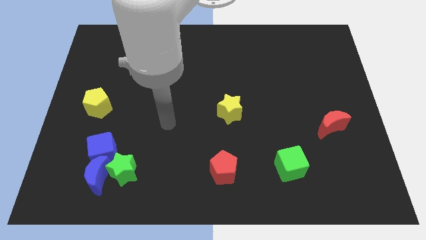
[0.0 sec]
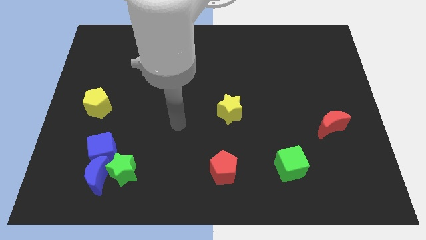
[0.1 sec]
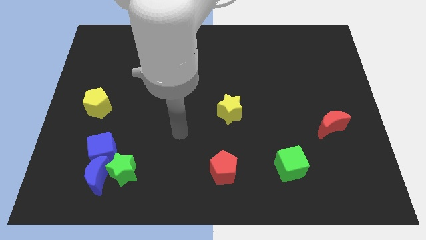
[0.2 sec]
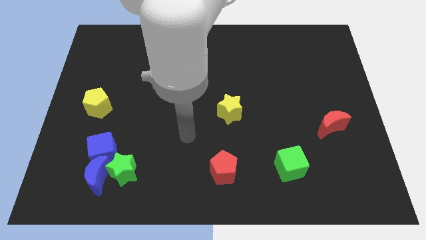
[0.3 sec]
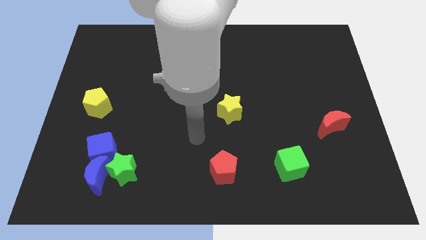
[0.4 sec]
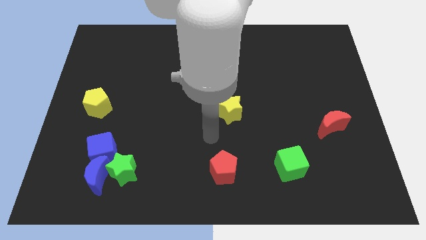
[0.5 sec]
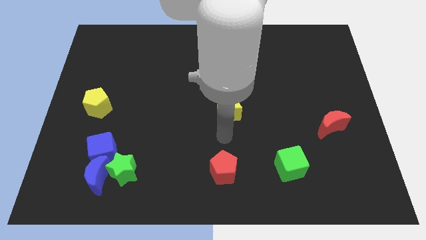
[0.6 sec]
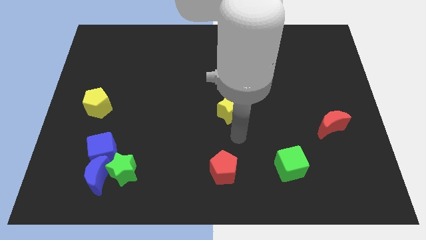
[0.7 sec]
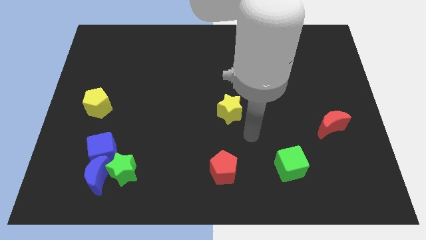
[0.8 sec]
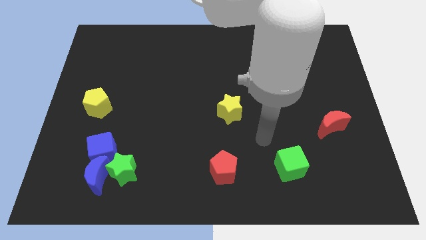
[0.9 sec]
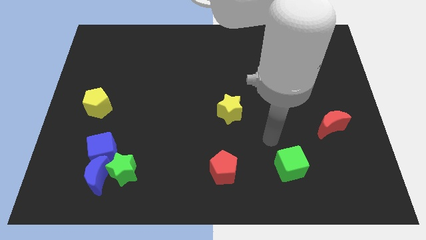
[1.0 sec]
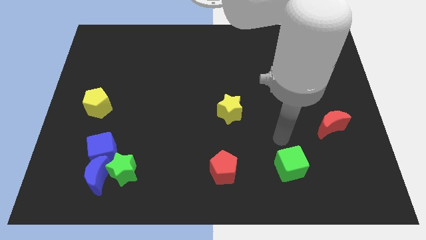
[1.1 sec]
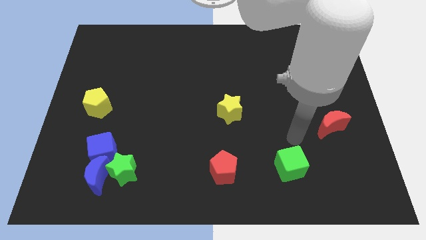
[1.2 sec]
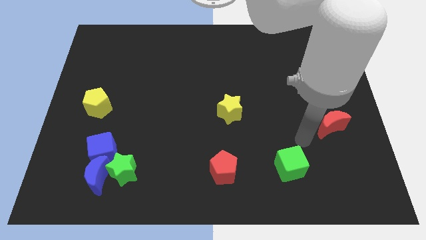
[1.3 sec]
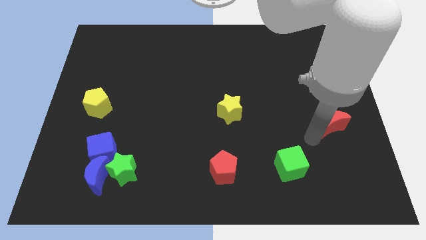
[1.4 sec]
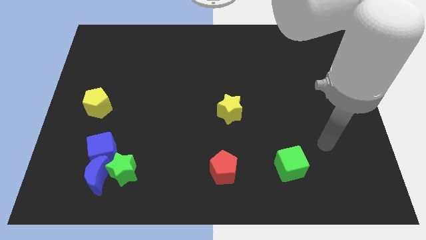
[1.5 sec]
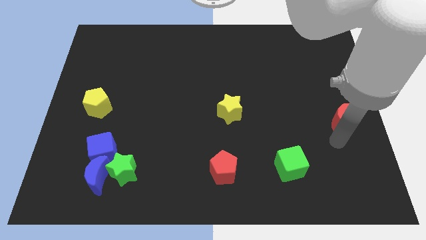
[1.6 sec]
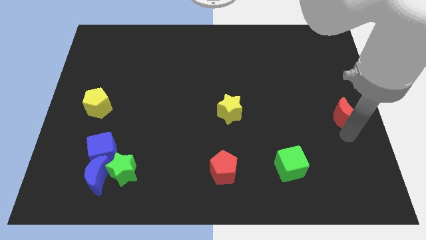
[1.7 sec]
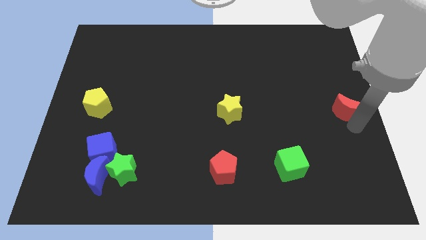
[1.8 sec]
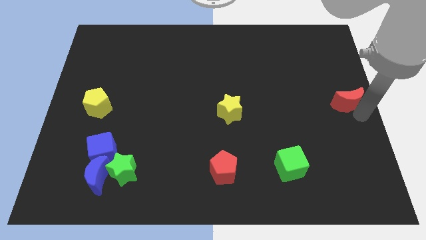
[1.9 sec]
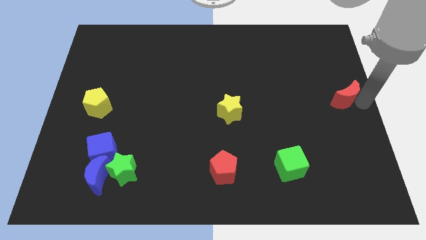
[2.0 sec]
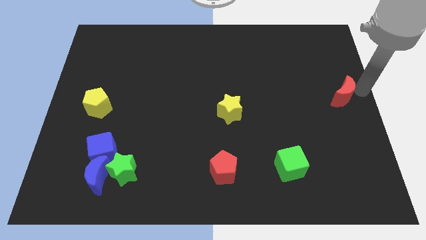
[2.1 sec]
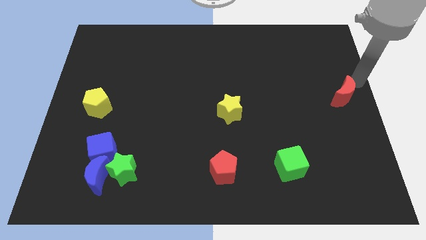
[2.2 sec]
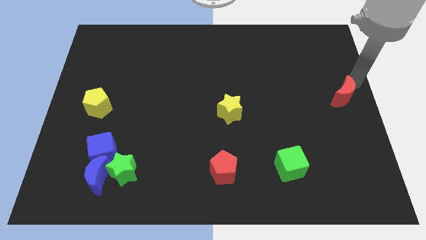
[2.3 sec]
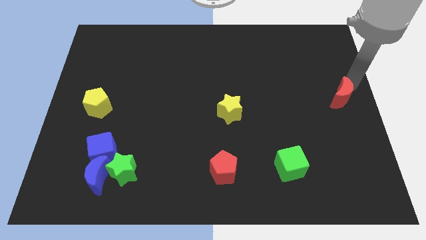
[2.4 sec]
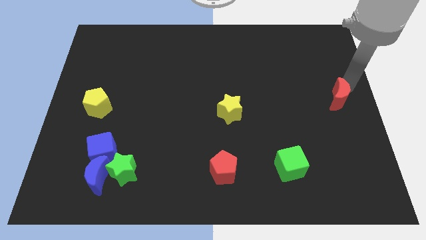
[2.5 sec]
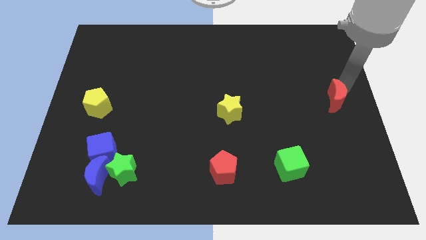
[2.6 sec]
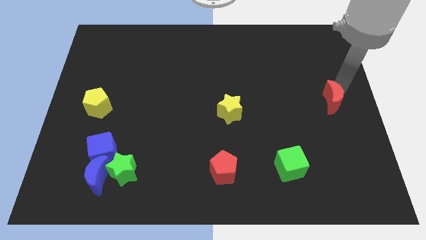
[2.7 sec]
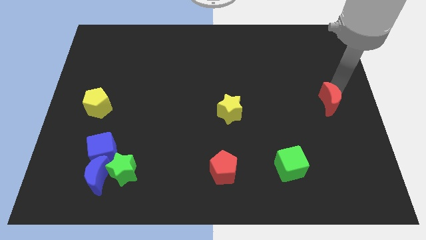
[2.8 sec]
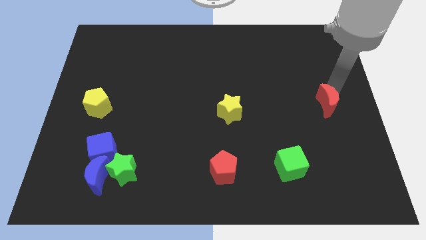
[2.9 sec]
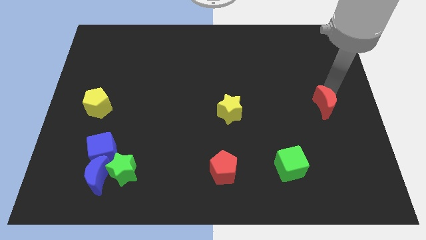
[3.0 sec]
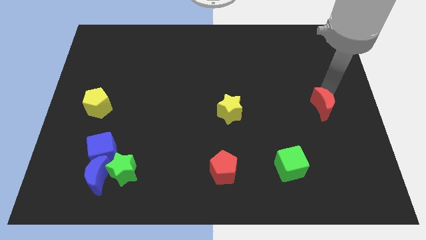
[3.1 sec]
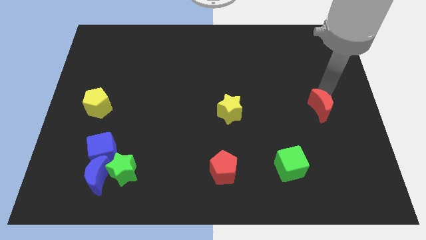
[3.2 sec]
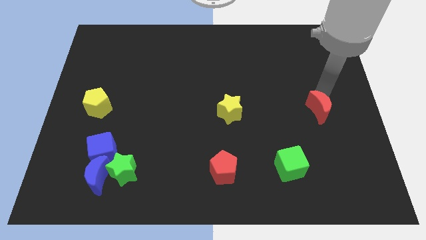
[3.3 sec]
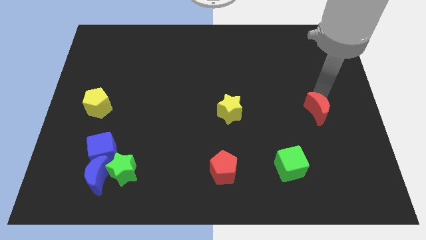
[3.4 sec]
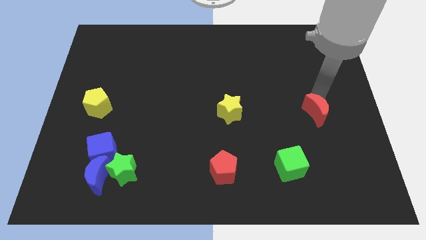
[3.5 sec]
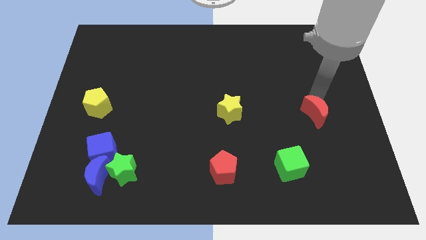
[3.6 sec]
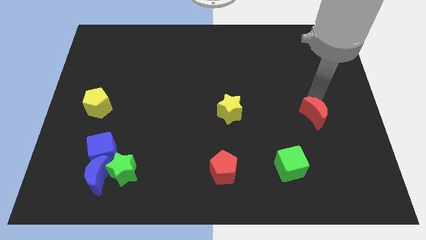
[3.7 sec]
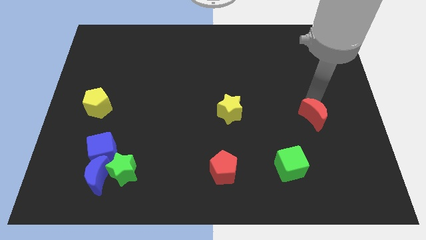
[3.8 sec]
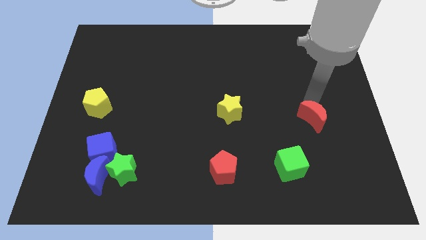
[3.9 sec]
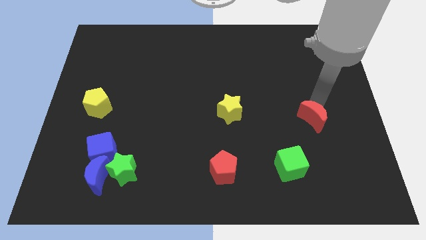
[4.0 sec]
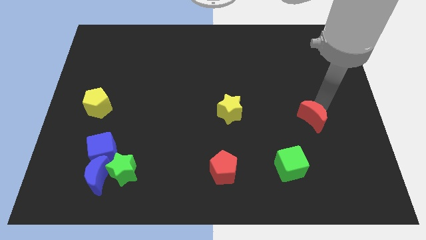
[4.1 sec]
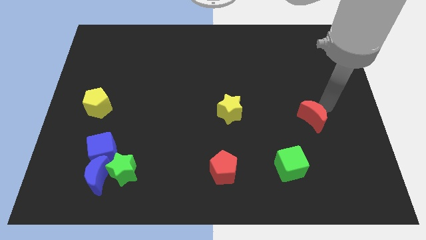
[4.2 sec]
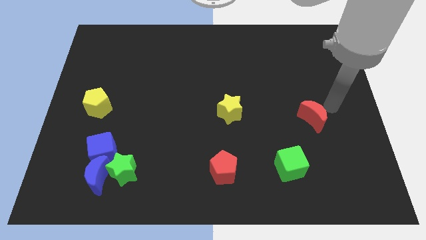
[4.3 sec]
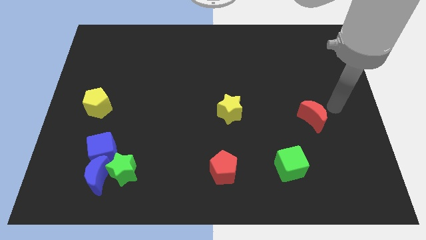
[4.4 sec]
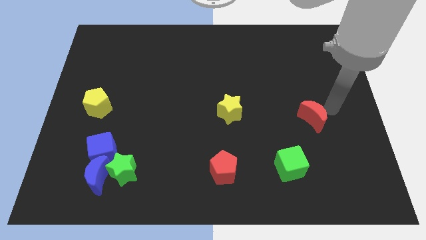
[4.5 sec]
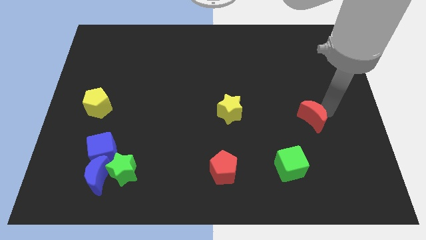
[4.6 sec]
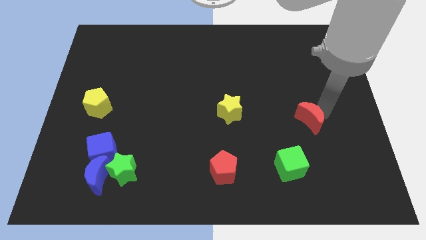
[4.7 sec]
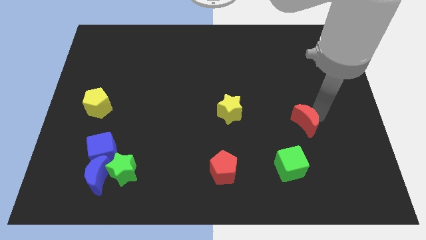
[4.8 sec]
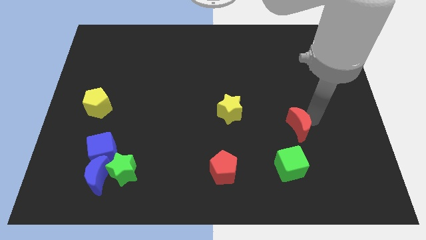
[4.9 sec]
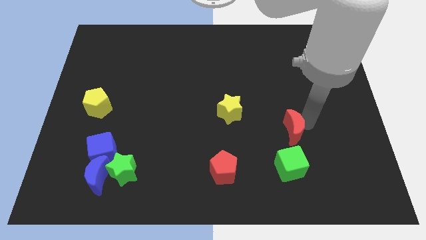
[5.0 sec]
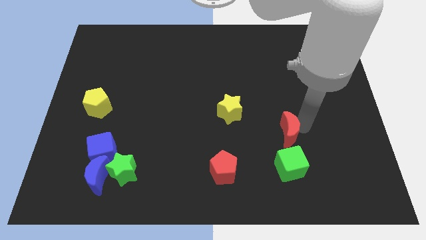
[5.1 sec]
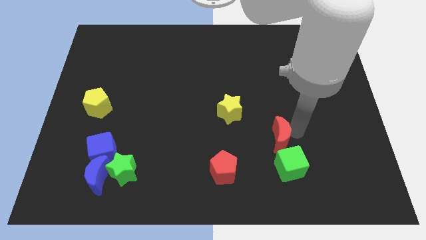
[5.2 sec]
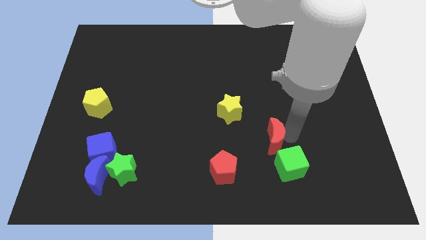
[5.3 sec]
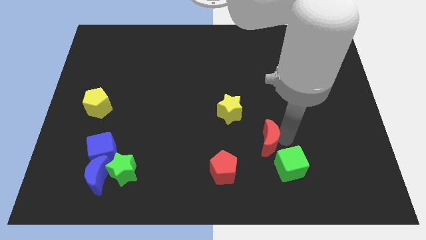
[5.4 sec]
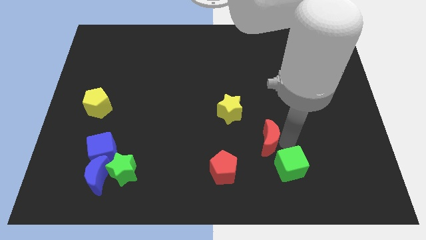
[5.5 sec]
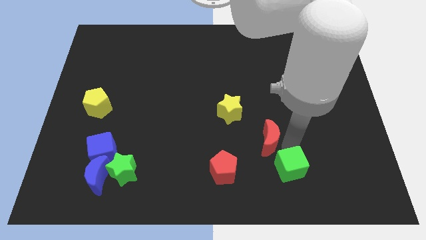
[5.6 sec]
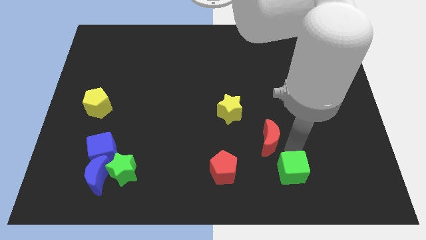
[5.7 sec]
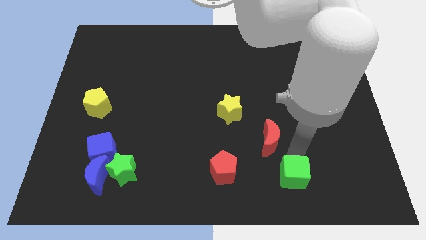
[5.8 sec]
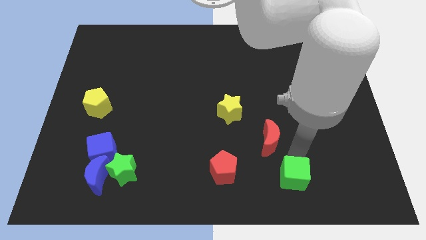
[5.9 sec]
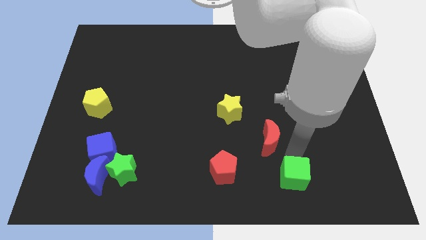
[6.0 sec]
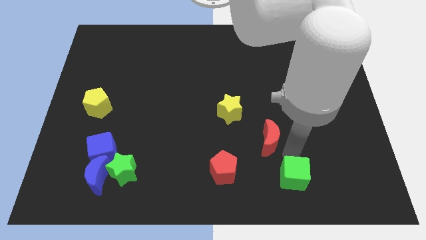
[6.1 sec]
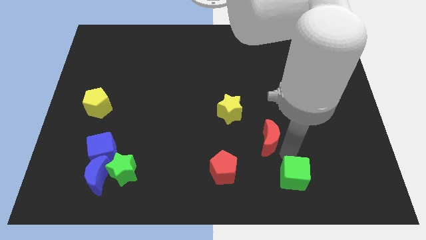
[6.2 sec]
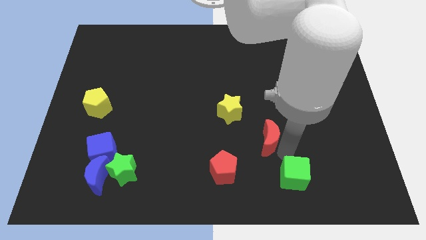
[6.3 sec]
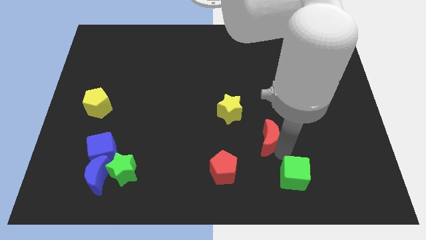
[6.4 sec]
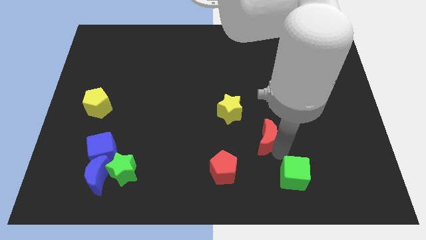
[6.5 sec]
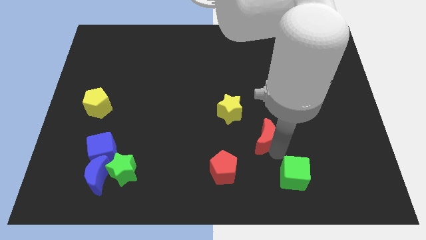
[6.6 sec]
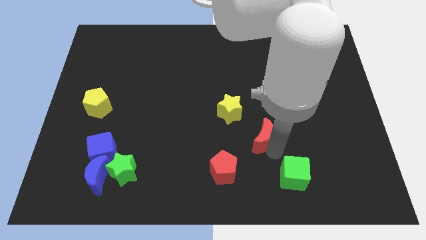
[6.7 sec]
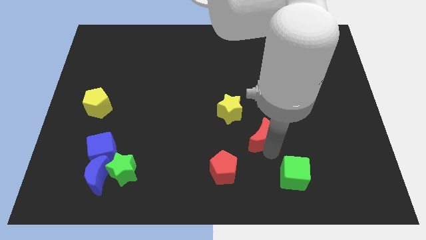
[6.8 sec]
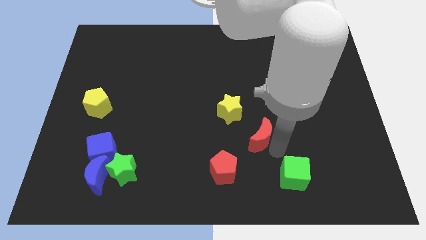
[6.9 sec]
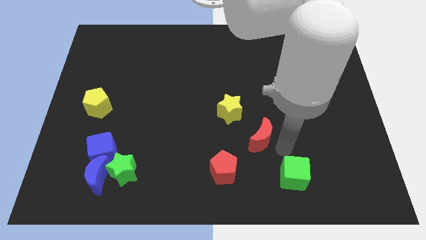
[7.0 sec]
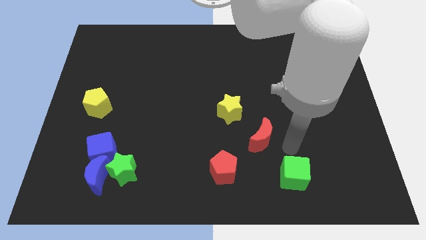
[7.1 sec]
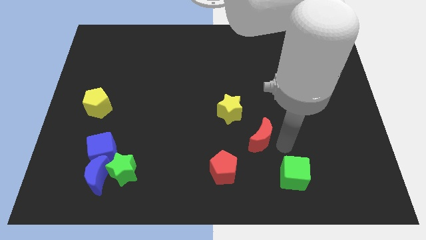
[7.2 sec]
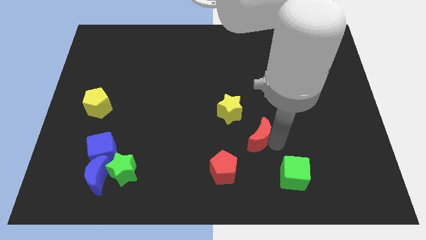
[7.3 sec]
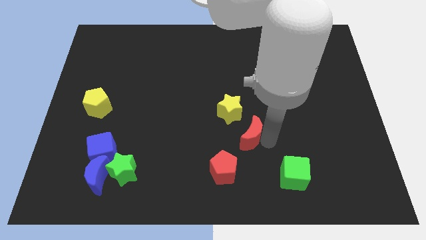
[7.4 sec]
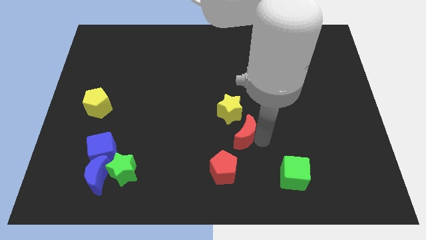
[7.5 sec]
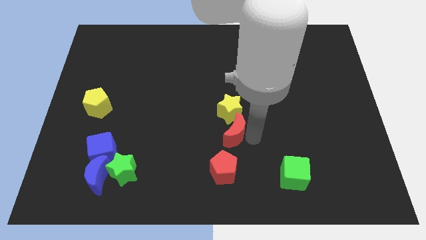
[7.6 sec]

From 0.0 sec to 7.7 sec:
push the red moon to the left

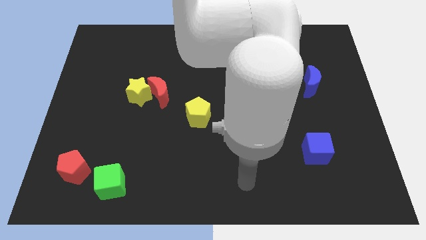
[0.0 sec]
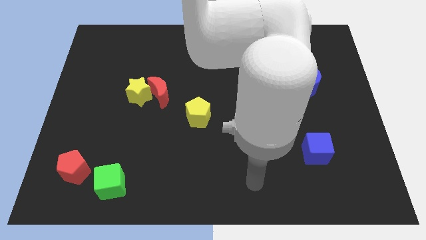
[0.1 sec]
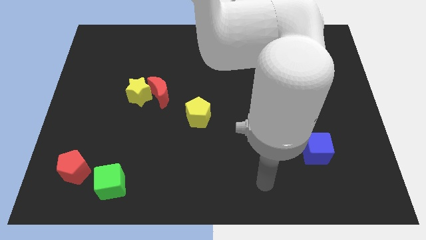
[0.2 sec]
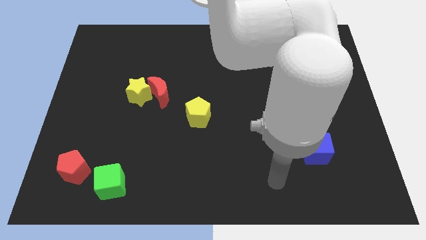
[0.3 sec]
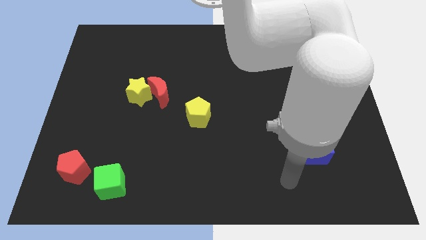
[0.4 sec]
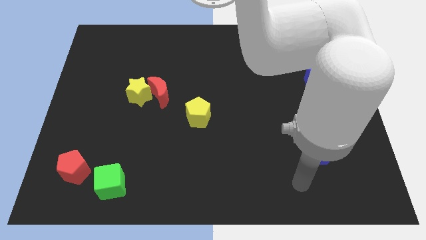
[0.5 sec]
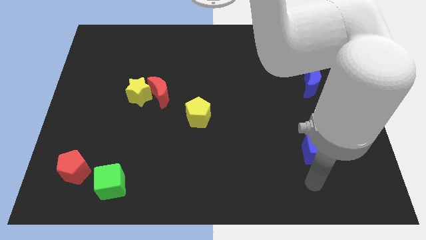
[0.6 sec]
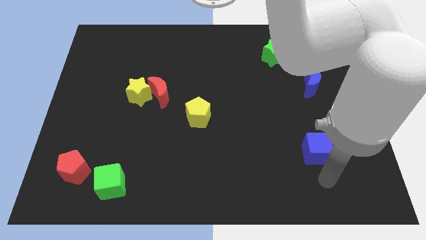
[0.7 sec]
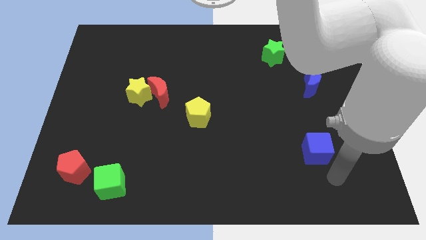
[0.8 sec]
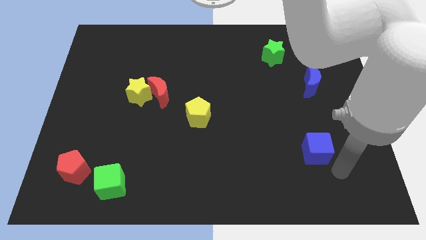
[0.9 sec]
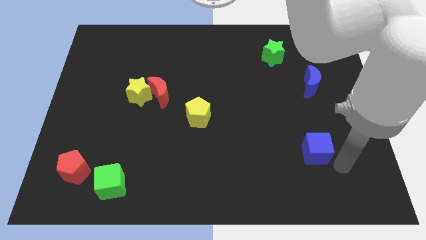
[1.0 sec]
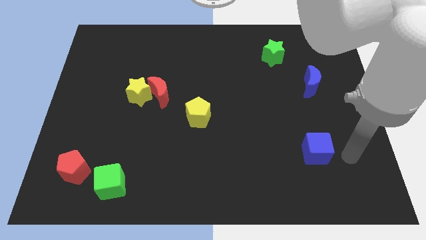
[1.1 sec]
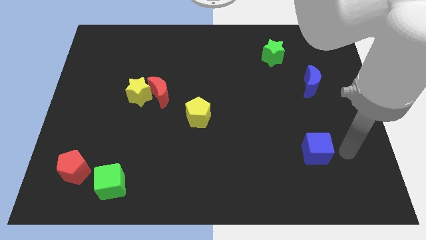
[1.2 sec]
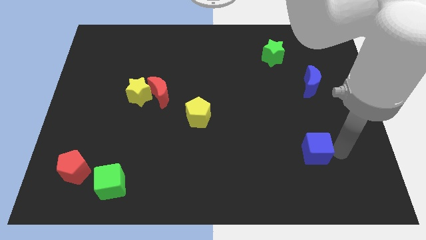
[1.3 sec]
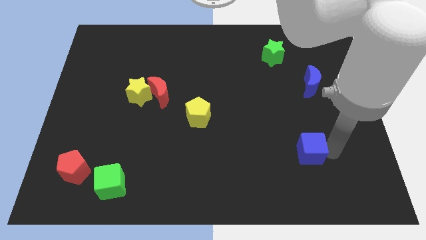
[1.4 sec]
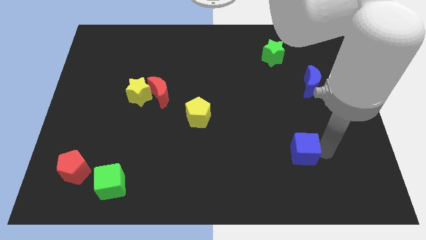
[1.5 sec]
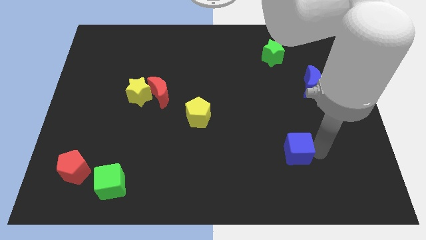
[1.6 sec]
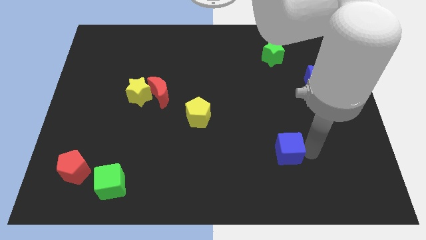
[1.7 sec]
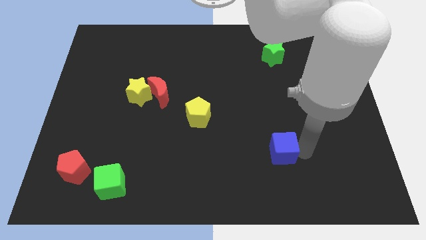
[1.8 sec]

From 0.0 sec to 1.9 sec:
slide the blue cube a little bit left
